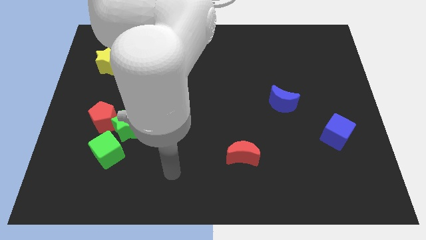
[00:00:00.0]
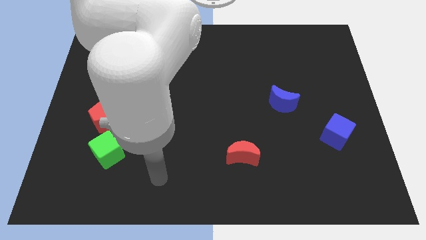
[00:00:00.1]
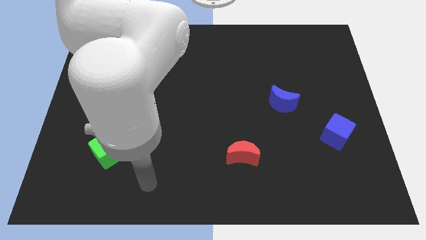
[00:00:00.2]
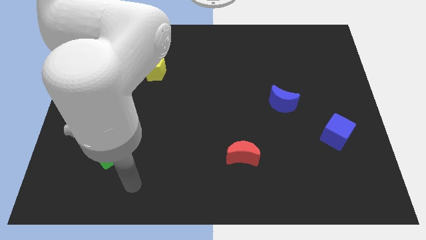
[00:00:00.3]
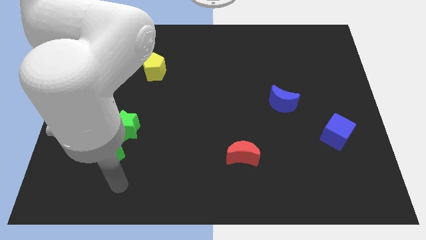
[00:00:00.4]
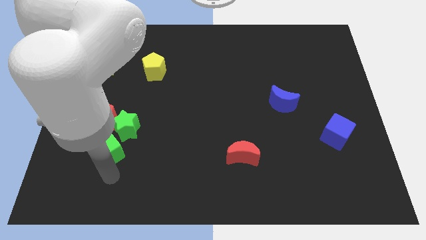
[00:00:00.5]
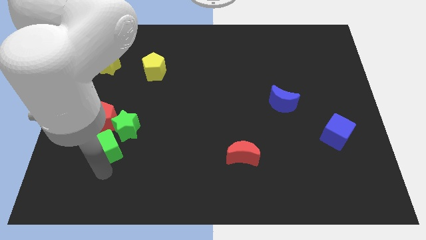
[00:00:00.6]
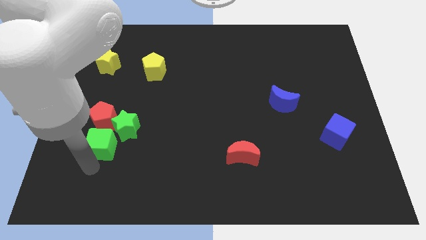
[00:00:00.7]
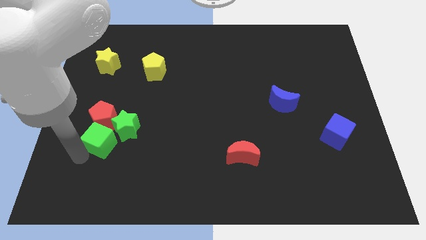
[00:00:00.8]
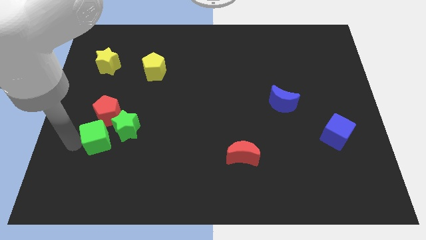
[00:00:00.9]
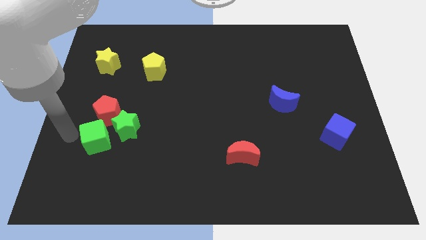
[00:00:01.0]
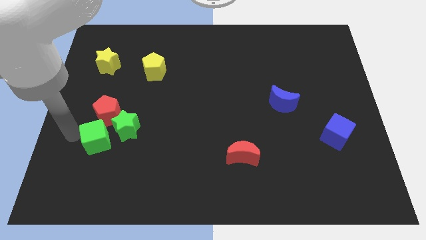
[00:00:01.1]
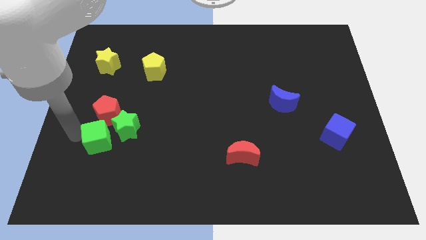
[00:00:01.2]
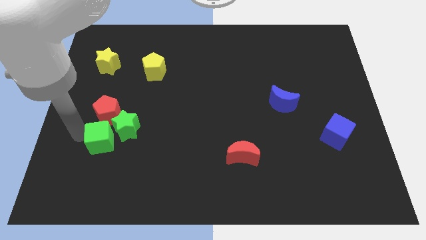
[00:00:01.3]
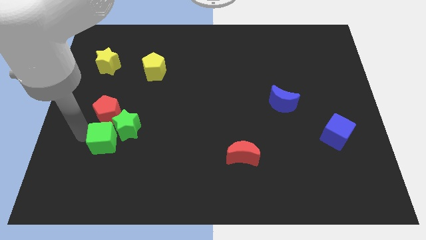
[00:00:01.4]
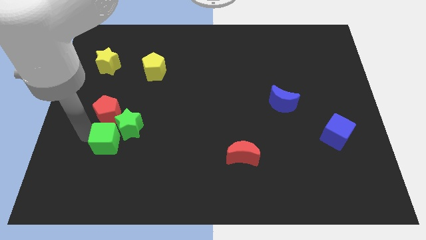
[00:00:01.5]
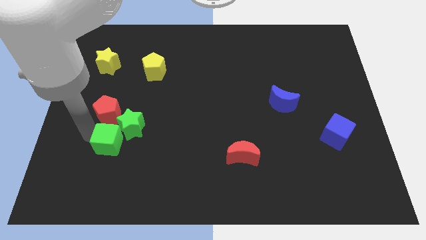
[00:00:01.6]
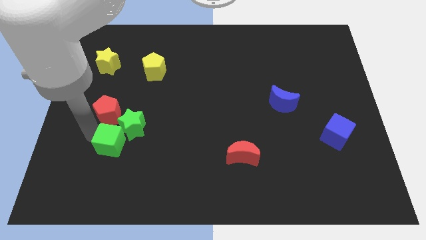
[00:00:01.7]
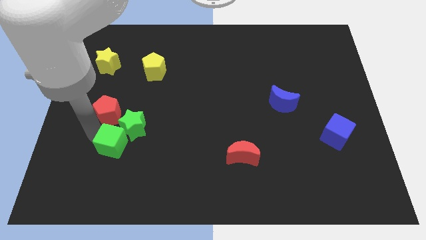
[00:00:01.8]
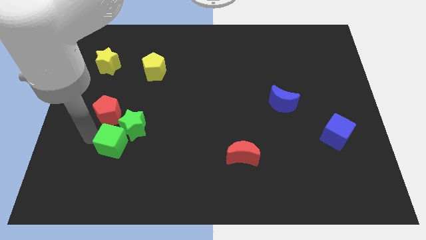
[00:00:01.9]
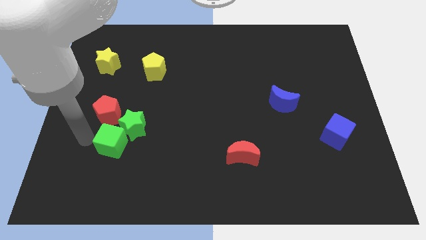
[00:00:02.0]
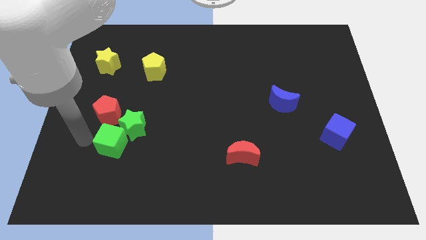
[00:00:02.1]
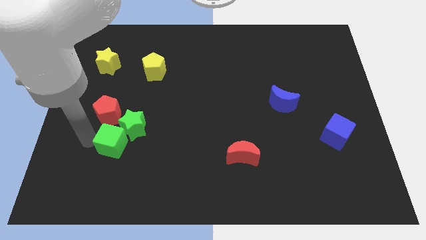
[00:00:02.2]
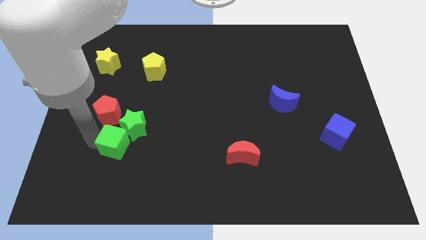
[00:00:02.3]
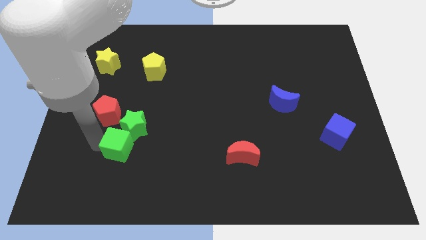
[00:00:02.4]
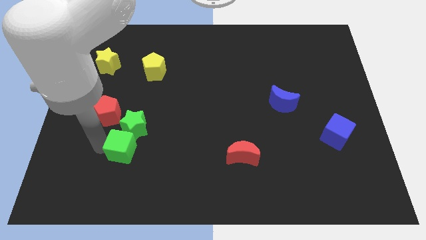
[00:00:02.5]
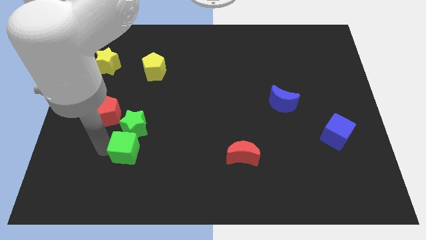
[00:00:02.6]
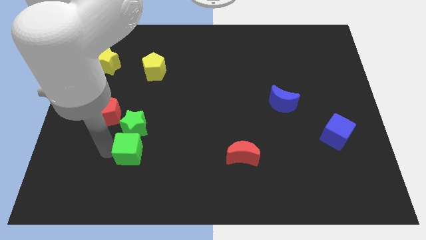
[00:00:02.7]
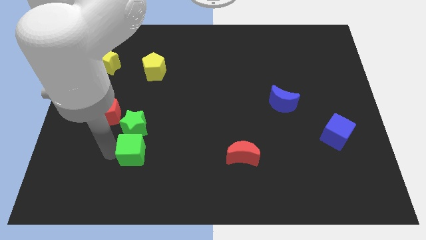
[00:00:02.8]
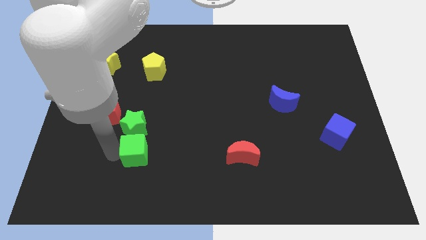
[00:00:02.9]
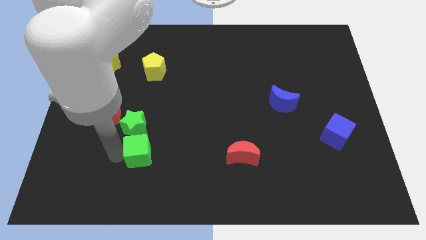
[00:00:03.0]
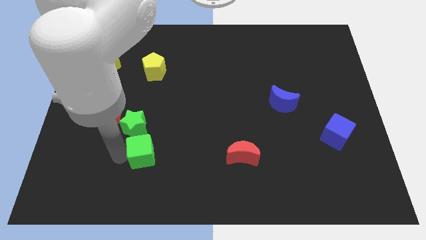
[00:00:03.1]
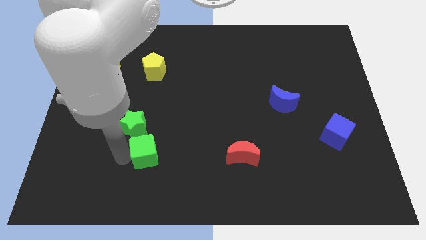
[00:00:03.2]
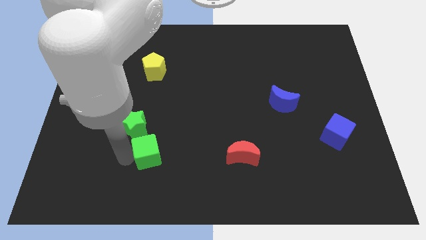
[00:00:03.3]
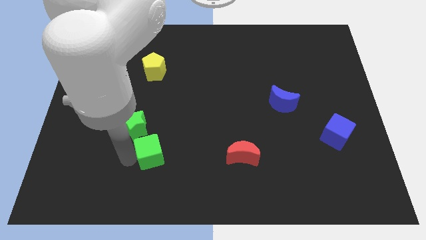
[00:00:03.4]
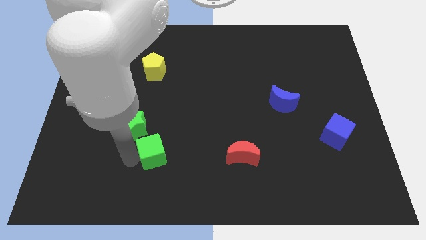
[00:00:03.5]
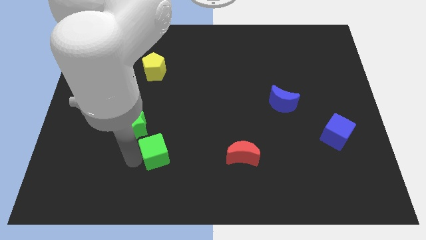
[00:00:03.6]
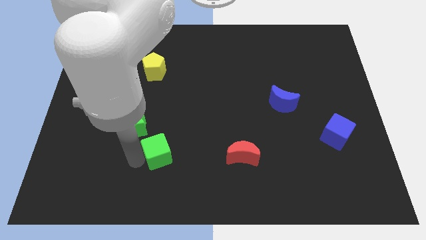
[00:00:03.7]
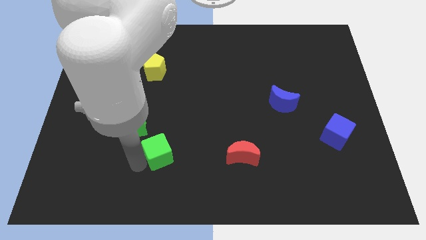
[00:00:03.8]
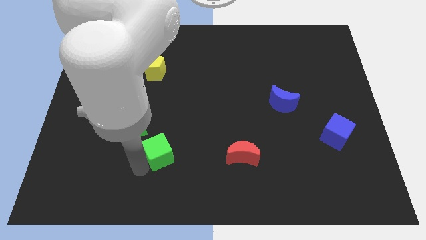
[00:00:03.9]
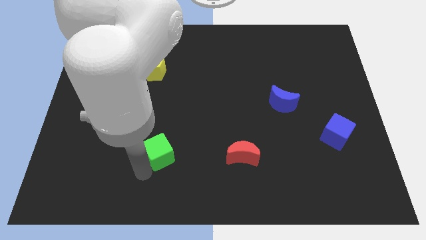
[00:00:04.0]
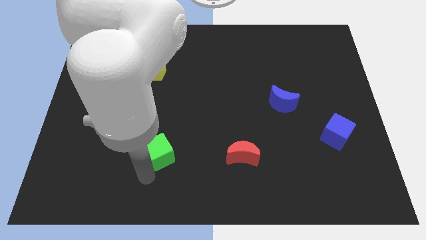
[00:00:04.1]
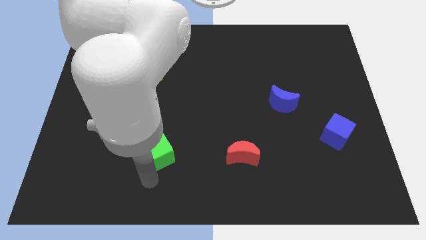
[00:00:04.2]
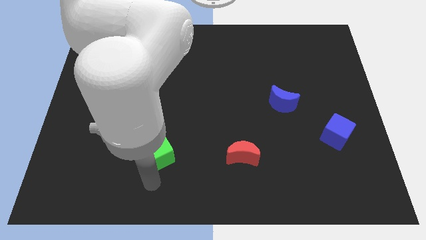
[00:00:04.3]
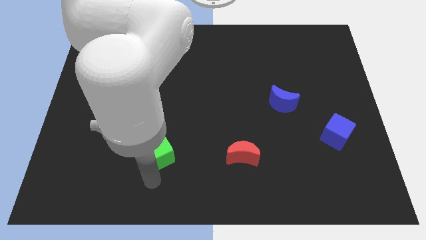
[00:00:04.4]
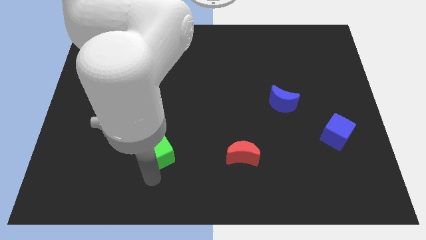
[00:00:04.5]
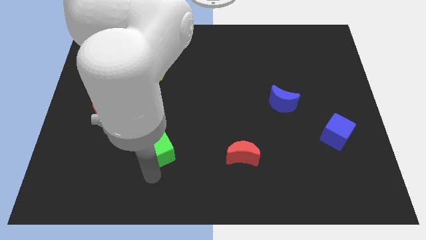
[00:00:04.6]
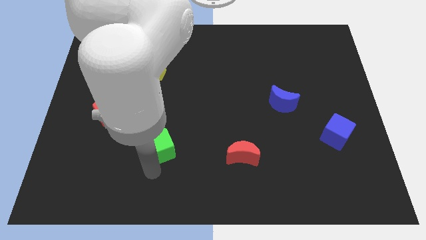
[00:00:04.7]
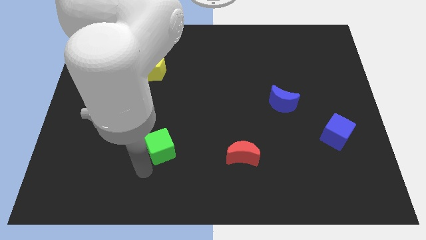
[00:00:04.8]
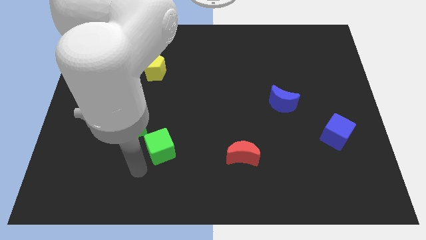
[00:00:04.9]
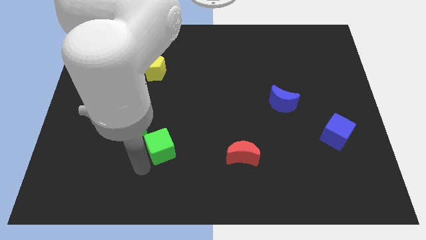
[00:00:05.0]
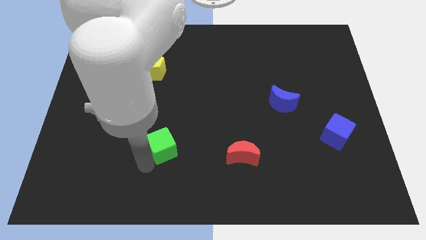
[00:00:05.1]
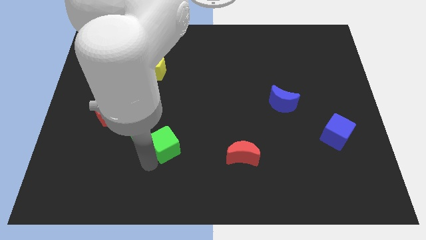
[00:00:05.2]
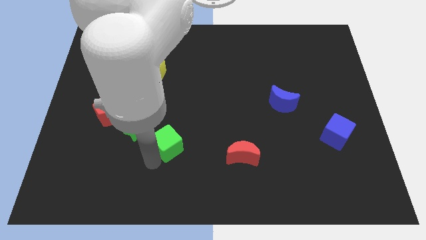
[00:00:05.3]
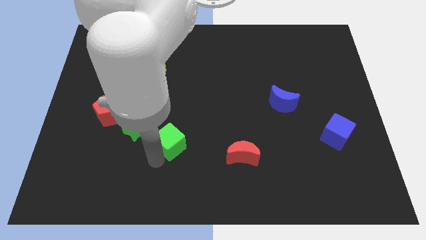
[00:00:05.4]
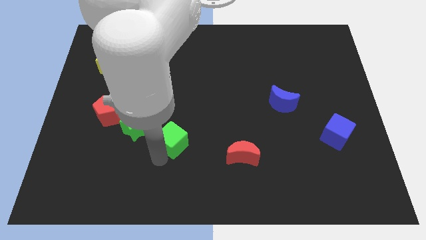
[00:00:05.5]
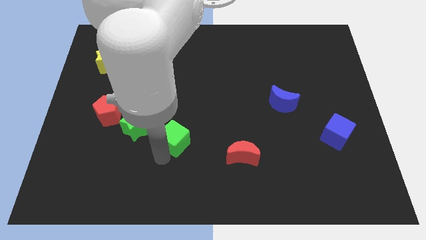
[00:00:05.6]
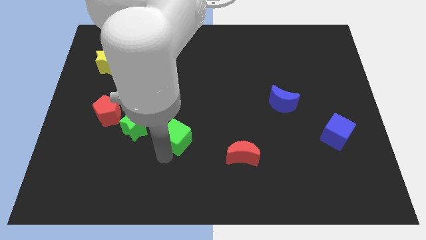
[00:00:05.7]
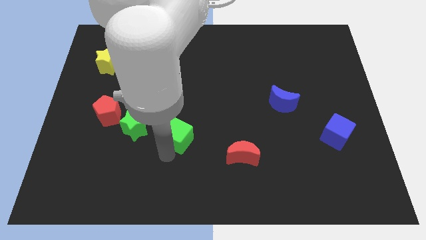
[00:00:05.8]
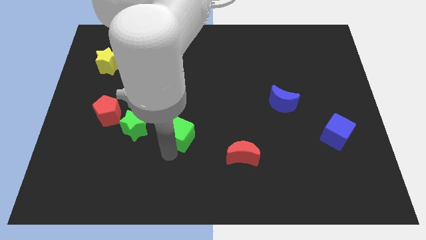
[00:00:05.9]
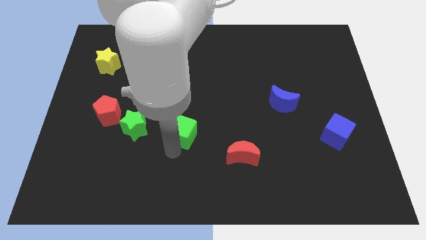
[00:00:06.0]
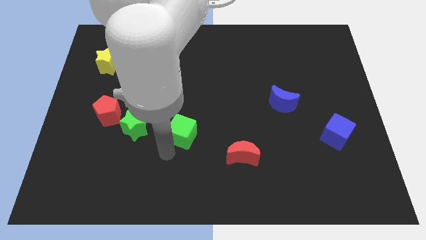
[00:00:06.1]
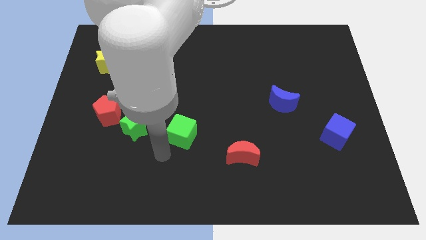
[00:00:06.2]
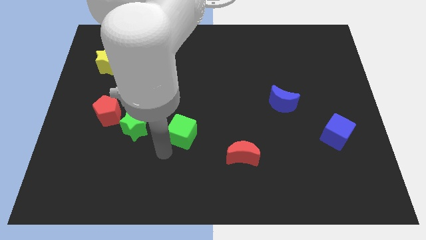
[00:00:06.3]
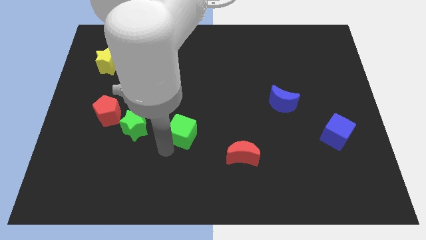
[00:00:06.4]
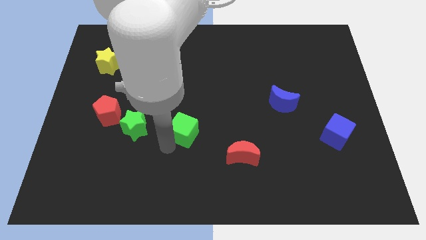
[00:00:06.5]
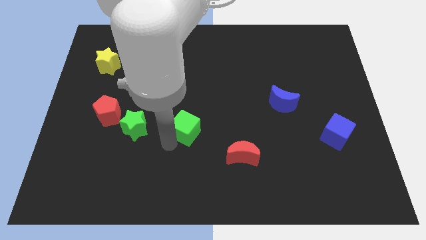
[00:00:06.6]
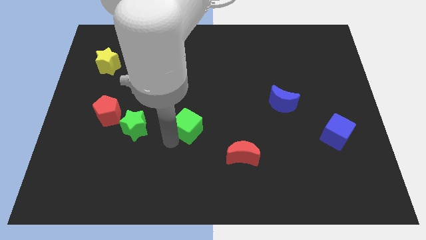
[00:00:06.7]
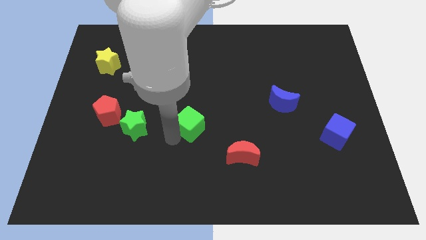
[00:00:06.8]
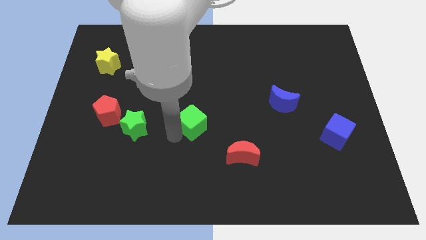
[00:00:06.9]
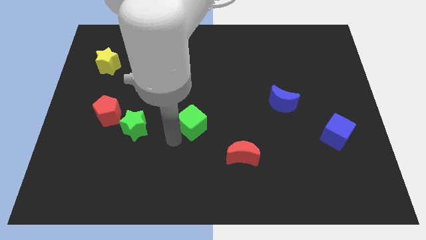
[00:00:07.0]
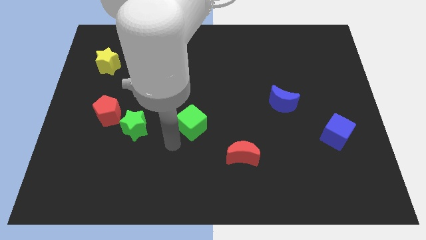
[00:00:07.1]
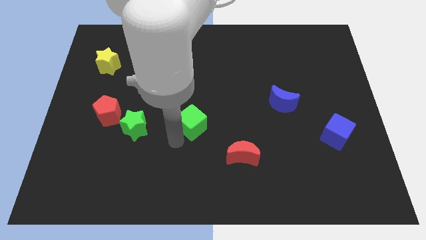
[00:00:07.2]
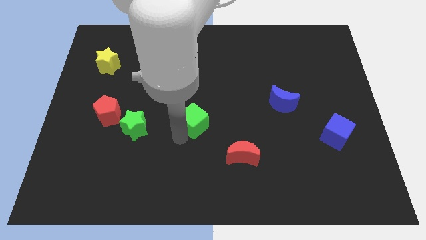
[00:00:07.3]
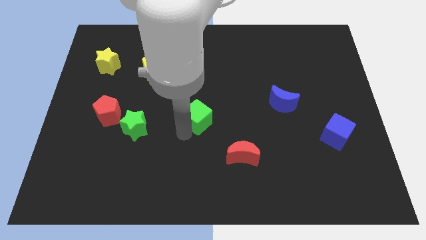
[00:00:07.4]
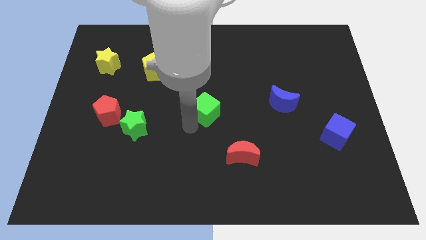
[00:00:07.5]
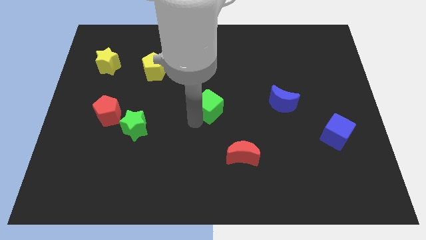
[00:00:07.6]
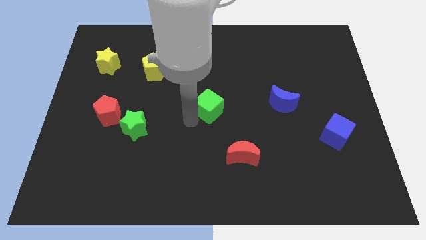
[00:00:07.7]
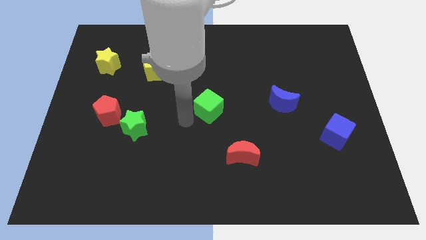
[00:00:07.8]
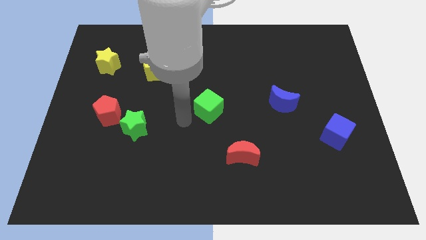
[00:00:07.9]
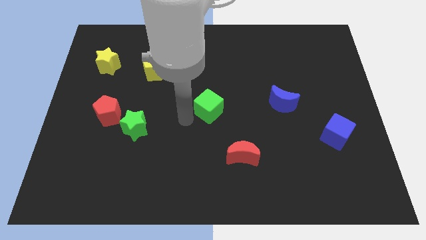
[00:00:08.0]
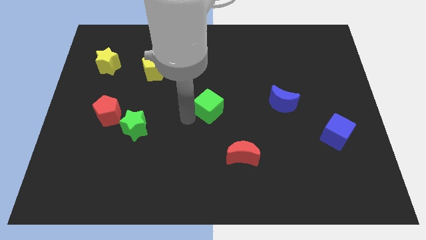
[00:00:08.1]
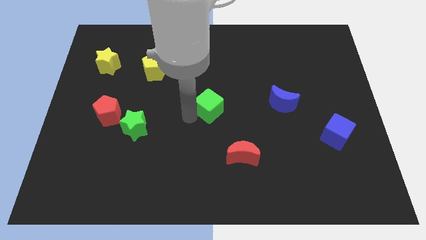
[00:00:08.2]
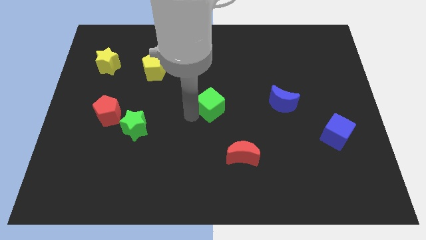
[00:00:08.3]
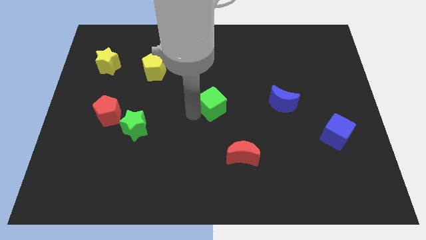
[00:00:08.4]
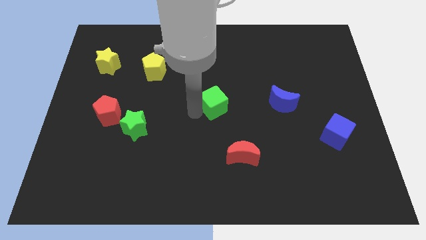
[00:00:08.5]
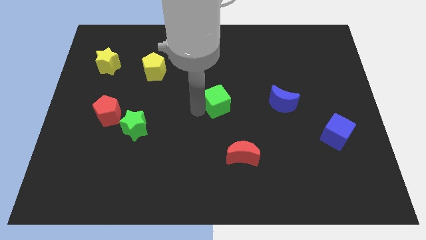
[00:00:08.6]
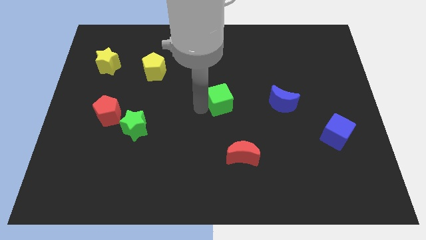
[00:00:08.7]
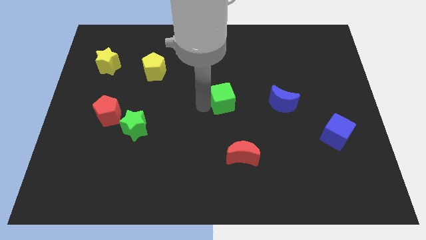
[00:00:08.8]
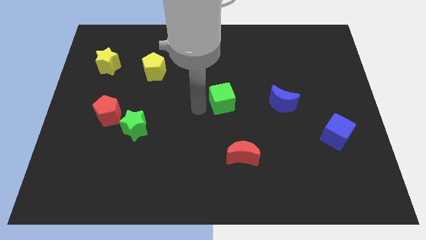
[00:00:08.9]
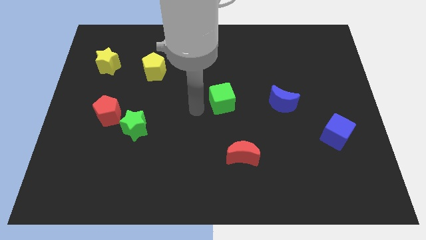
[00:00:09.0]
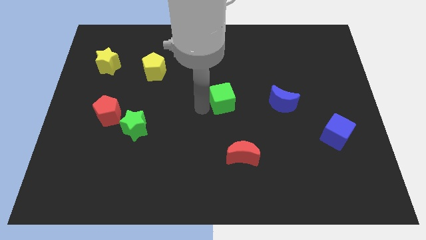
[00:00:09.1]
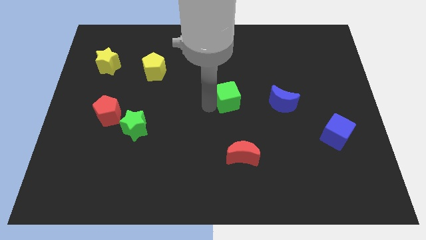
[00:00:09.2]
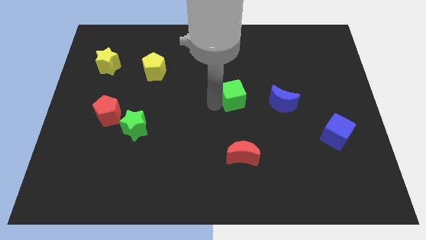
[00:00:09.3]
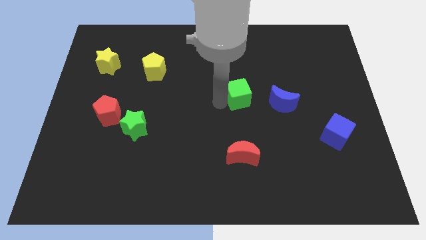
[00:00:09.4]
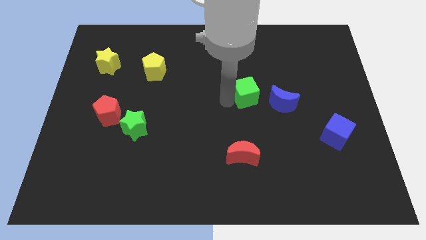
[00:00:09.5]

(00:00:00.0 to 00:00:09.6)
push the green cube diagonally up and to the left of the blue moon
